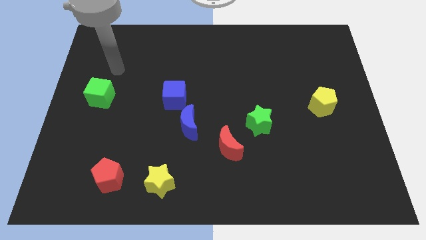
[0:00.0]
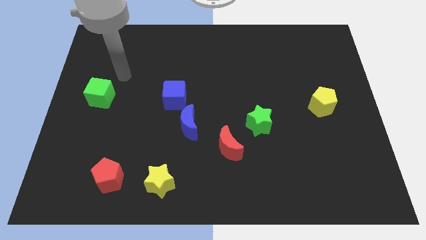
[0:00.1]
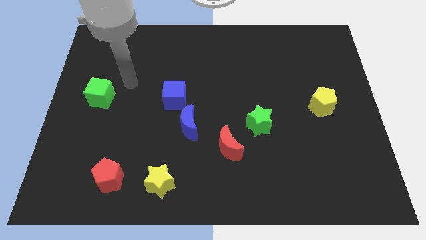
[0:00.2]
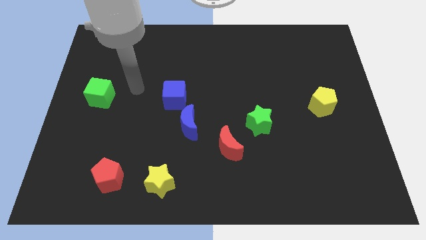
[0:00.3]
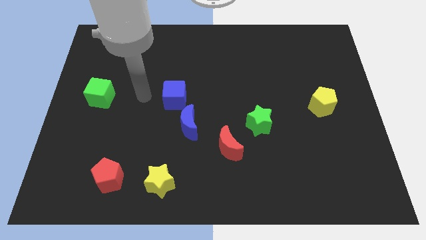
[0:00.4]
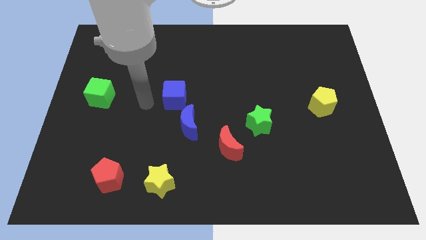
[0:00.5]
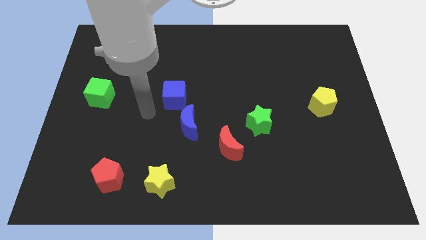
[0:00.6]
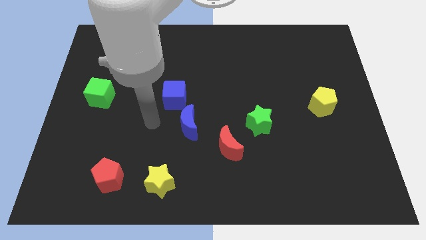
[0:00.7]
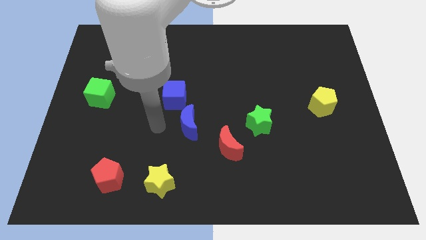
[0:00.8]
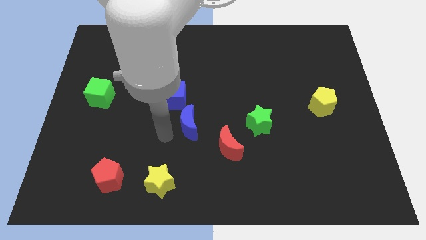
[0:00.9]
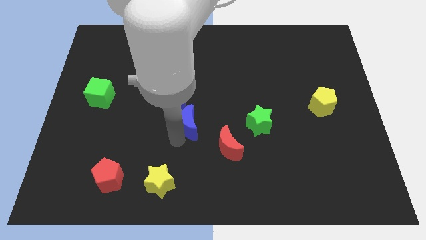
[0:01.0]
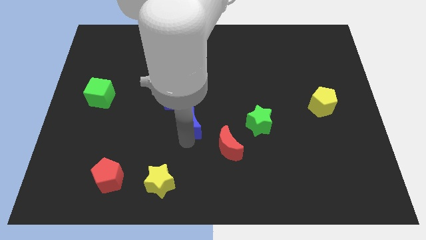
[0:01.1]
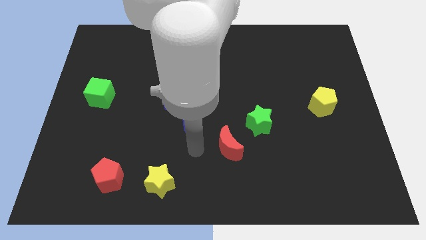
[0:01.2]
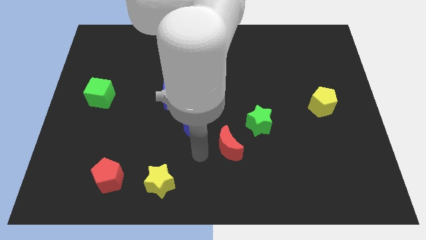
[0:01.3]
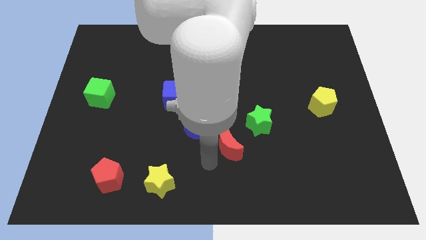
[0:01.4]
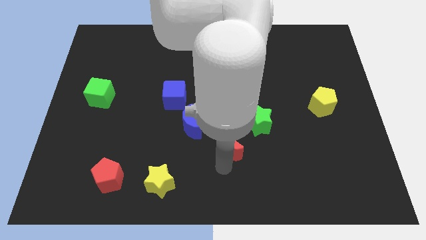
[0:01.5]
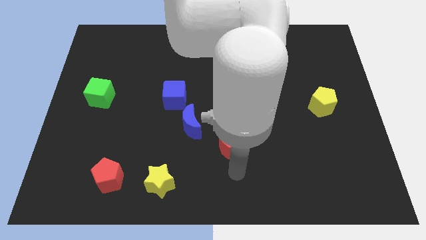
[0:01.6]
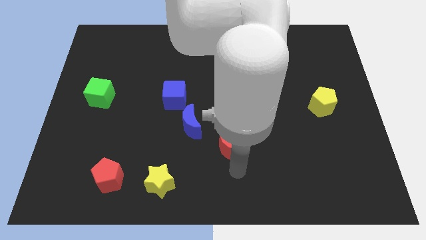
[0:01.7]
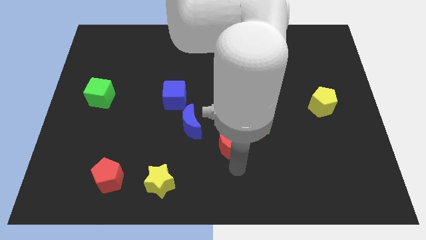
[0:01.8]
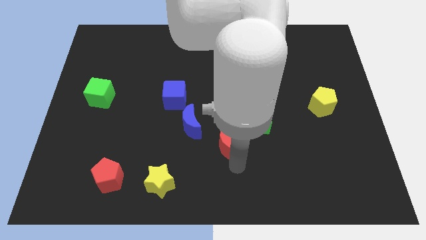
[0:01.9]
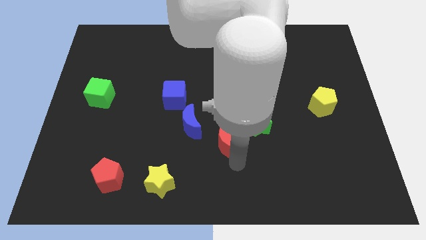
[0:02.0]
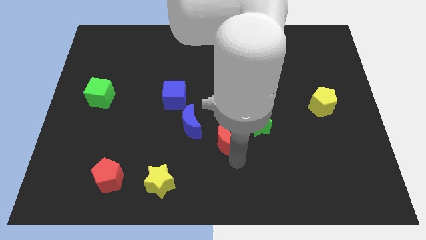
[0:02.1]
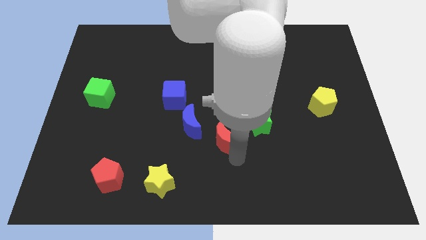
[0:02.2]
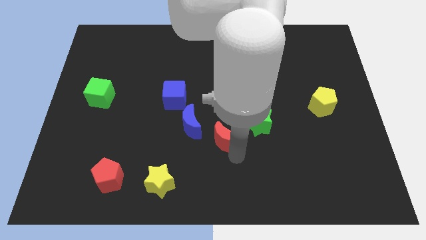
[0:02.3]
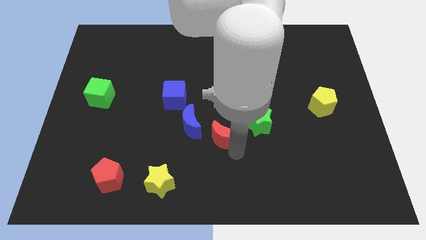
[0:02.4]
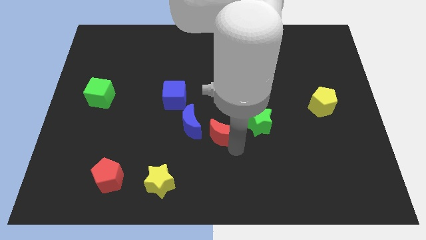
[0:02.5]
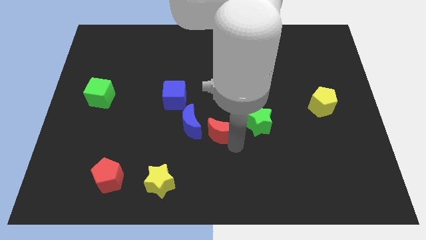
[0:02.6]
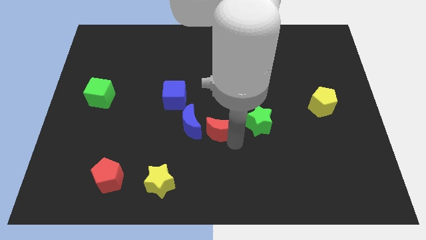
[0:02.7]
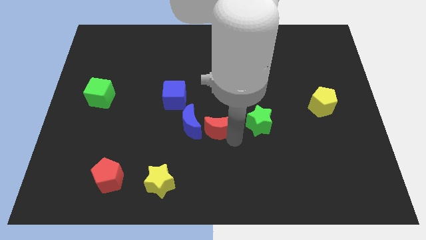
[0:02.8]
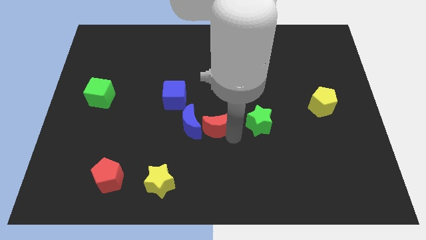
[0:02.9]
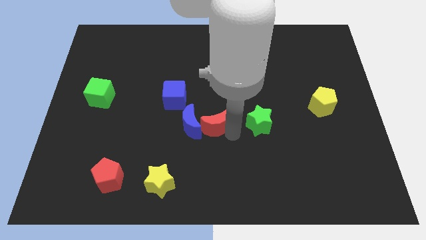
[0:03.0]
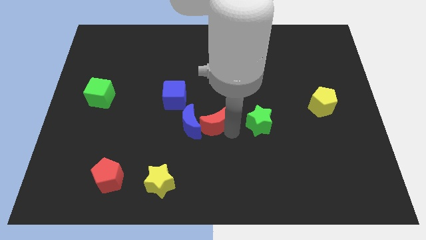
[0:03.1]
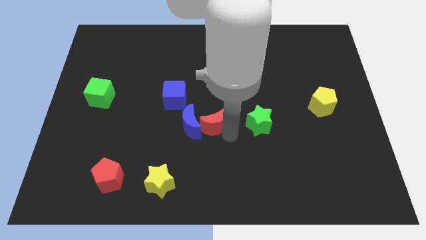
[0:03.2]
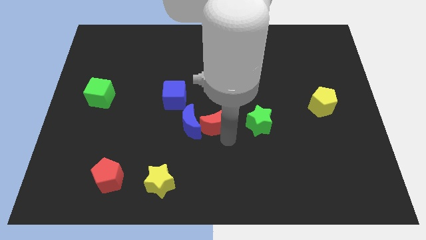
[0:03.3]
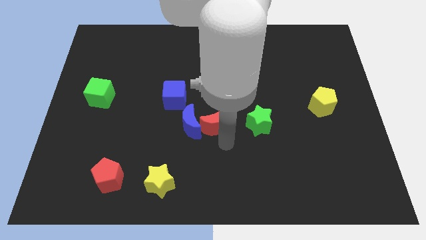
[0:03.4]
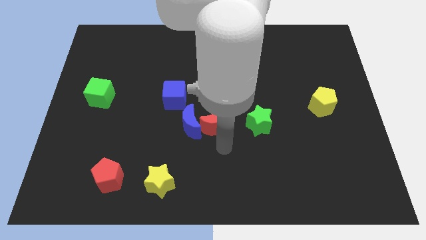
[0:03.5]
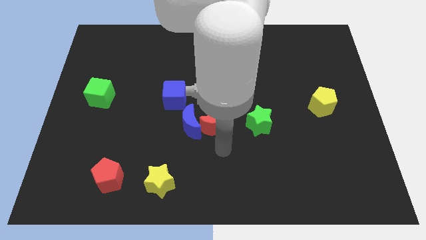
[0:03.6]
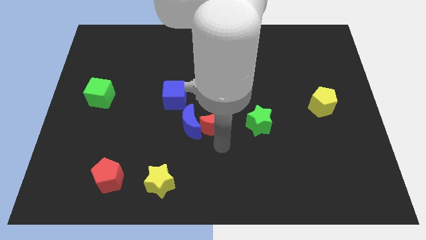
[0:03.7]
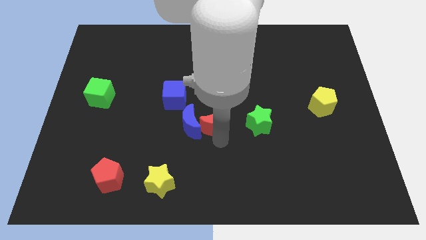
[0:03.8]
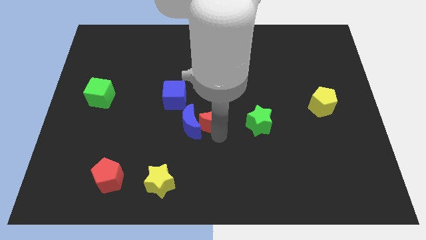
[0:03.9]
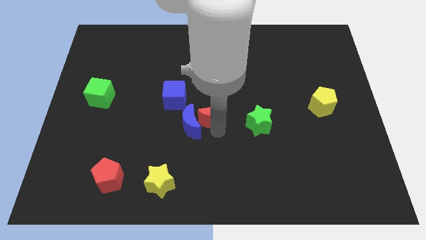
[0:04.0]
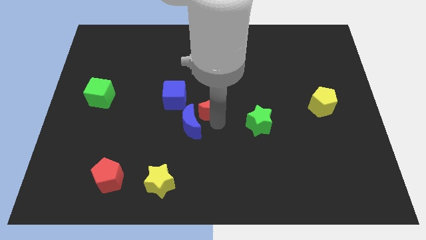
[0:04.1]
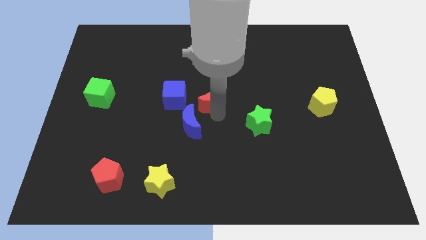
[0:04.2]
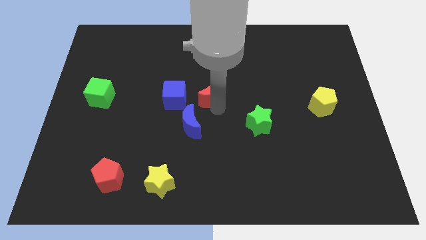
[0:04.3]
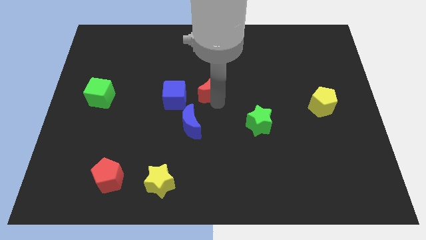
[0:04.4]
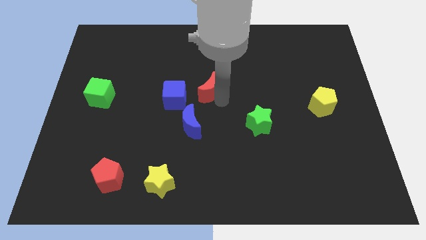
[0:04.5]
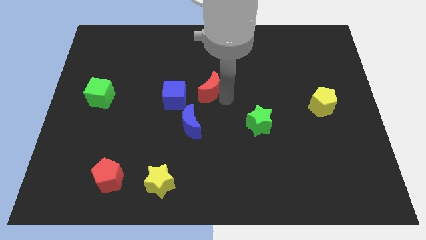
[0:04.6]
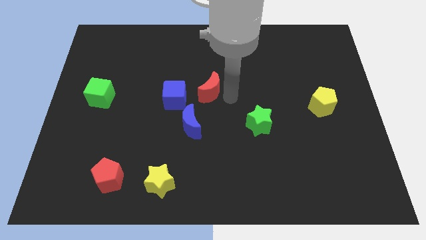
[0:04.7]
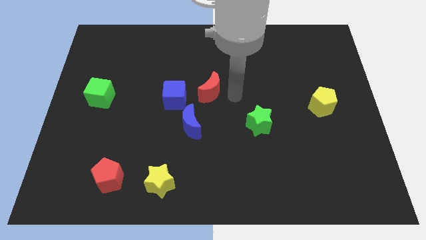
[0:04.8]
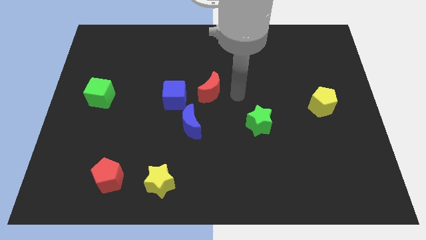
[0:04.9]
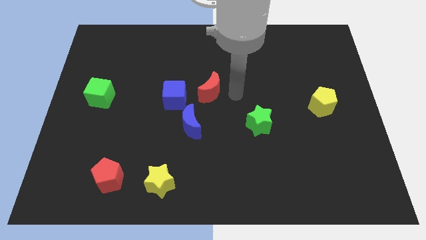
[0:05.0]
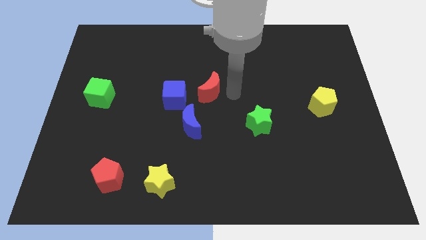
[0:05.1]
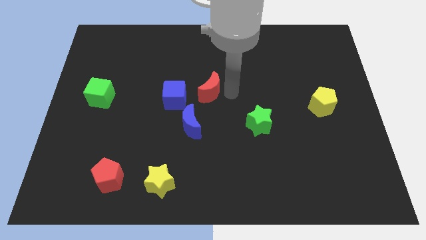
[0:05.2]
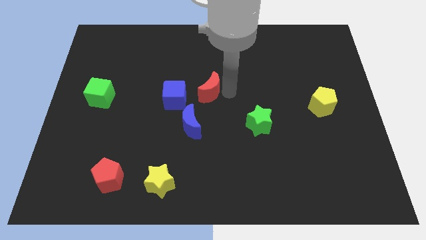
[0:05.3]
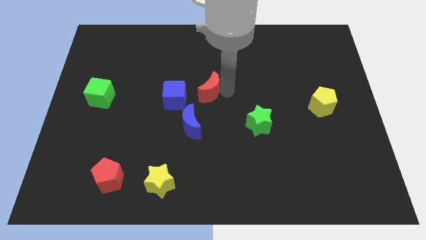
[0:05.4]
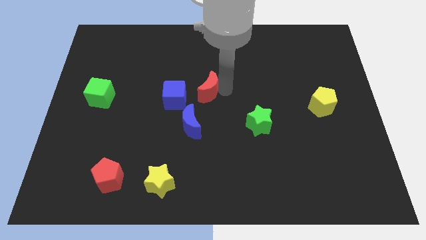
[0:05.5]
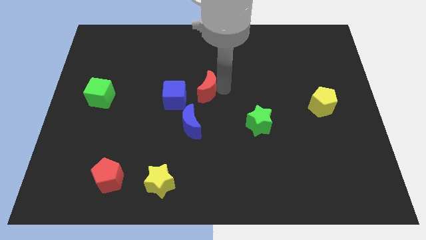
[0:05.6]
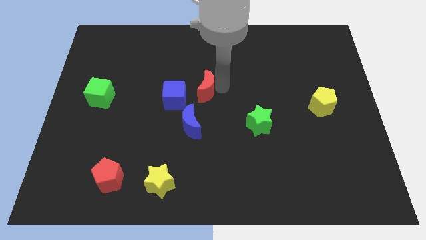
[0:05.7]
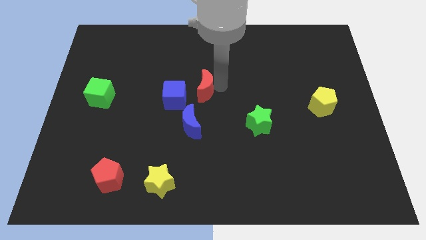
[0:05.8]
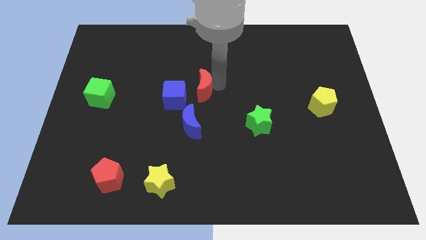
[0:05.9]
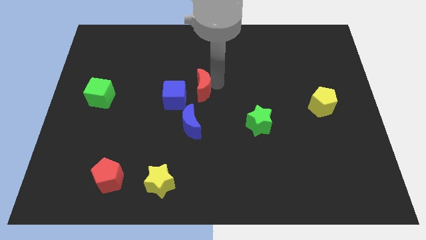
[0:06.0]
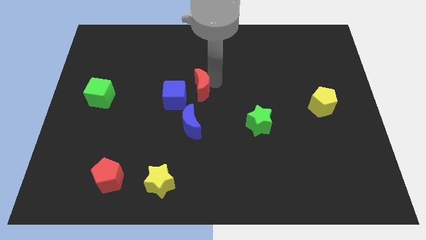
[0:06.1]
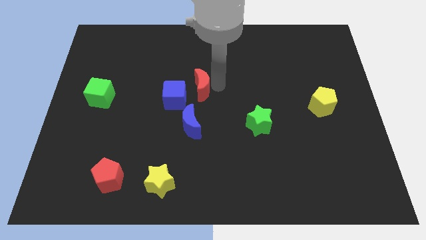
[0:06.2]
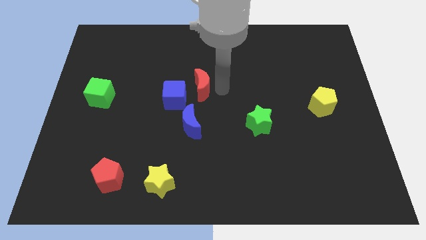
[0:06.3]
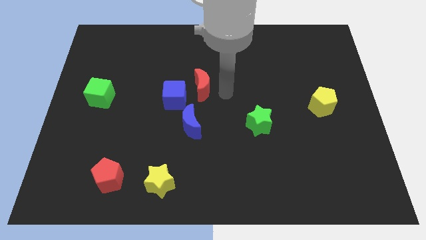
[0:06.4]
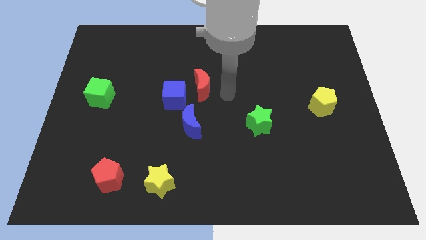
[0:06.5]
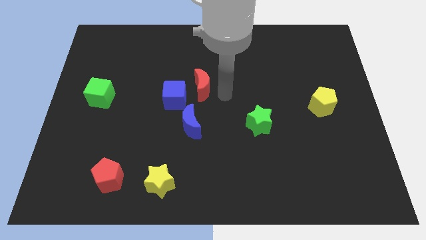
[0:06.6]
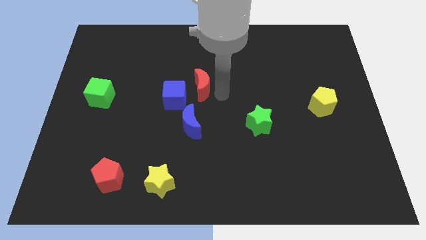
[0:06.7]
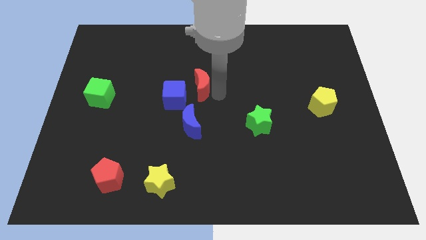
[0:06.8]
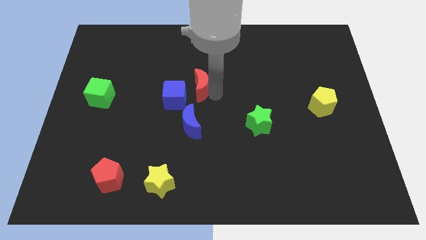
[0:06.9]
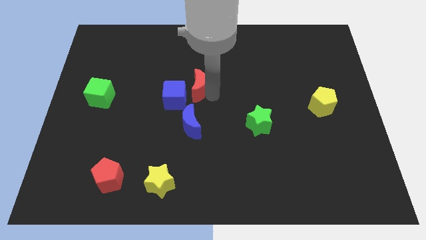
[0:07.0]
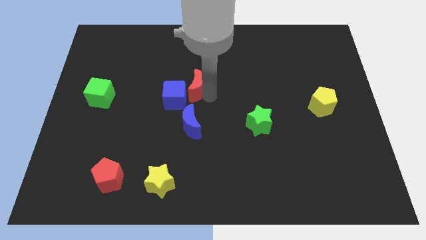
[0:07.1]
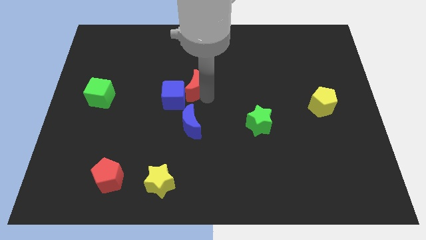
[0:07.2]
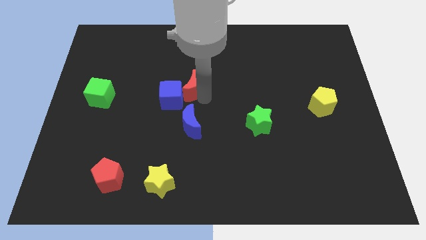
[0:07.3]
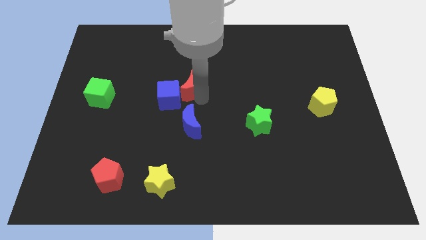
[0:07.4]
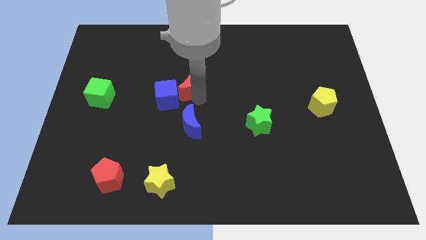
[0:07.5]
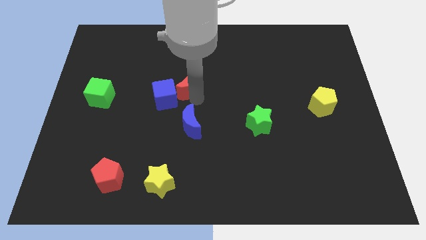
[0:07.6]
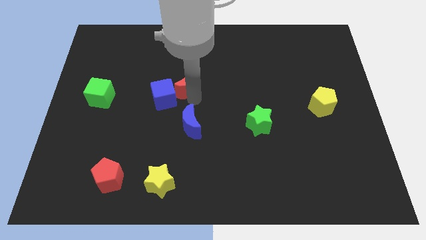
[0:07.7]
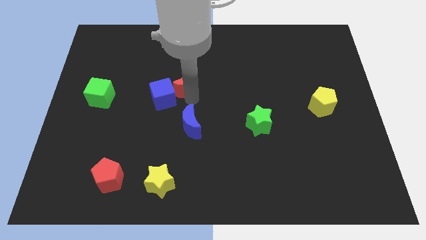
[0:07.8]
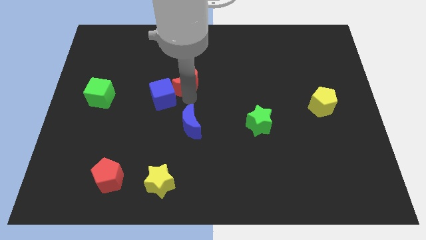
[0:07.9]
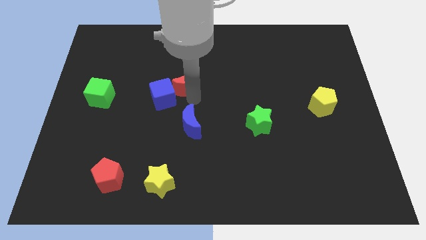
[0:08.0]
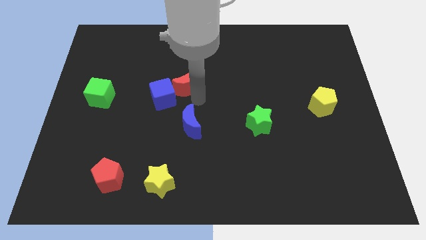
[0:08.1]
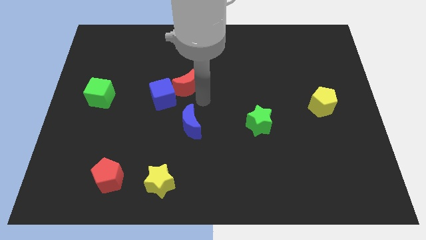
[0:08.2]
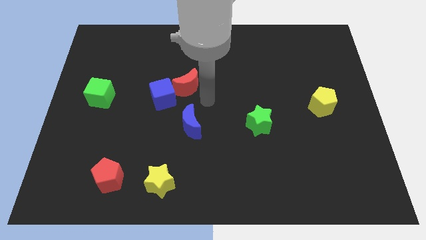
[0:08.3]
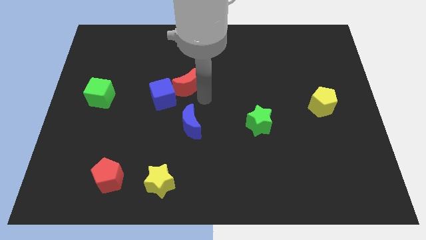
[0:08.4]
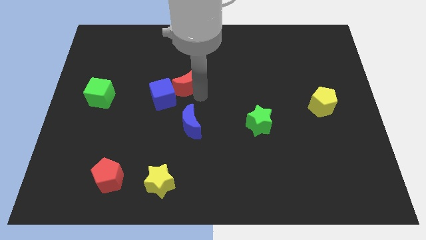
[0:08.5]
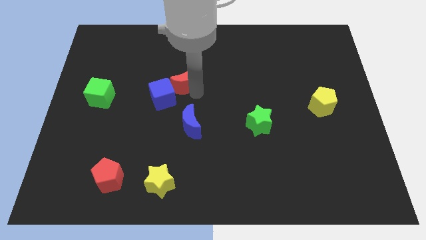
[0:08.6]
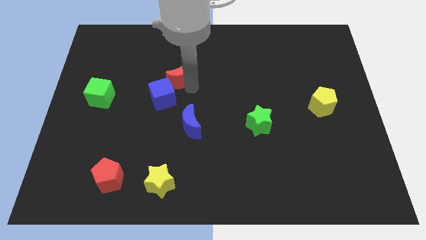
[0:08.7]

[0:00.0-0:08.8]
move the red moon upwards and then to the left

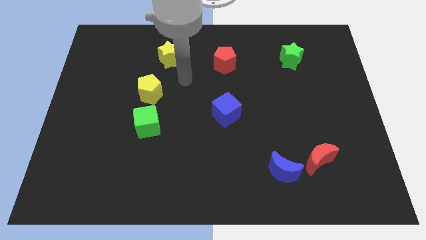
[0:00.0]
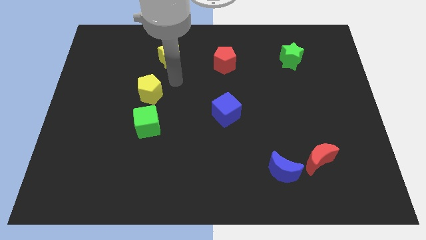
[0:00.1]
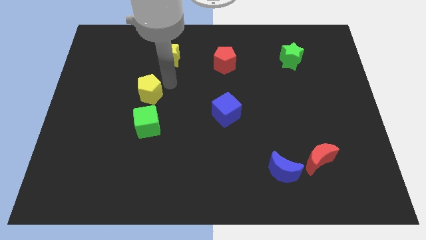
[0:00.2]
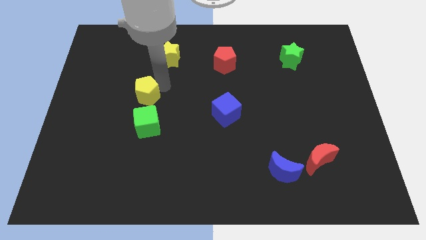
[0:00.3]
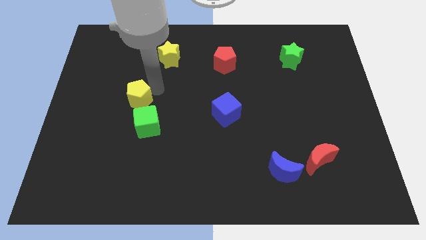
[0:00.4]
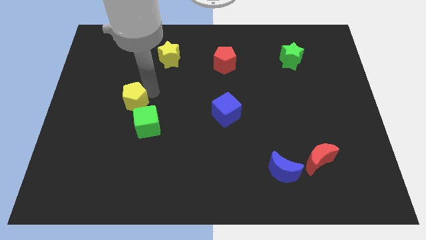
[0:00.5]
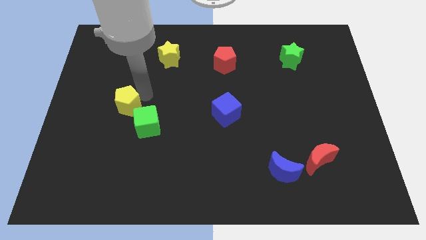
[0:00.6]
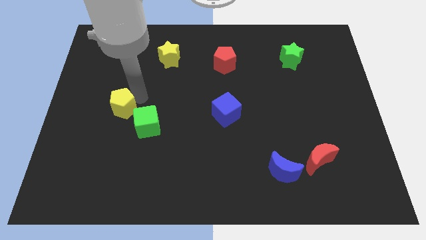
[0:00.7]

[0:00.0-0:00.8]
slide the yellow pentagon slightly down and then left
